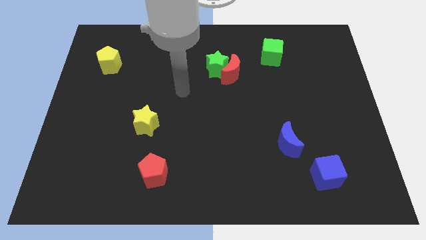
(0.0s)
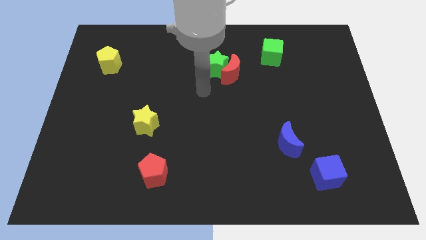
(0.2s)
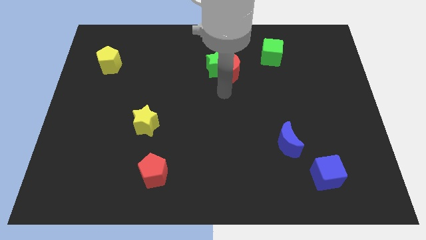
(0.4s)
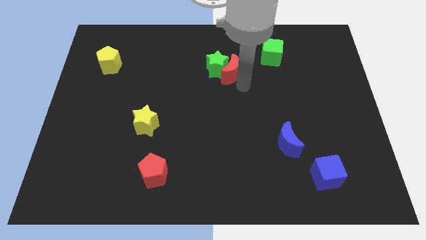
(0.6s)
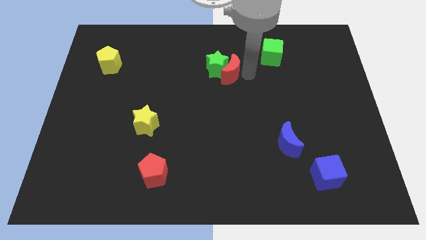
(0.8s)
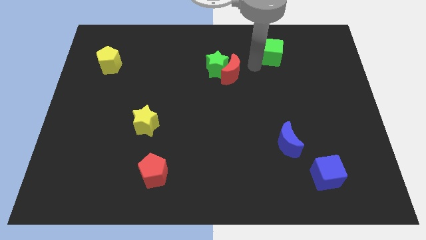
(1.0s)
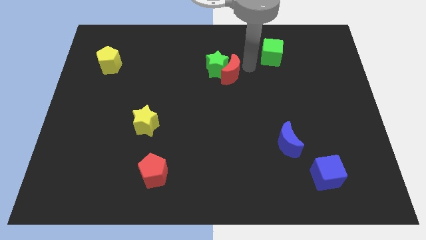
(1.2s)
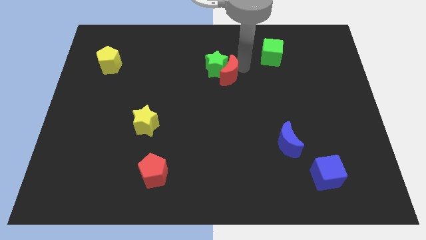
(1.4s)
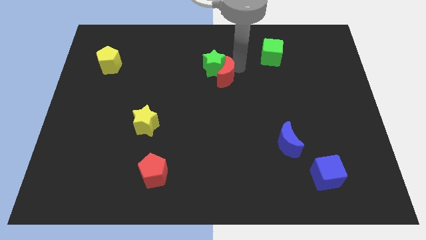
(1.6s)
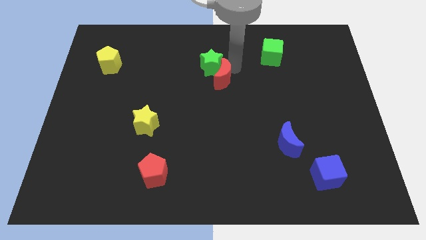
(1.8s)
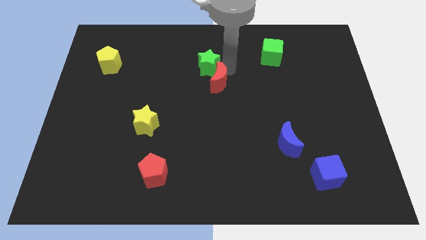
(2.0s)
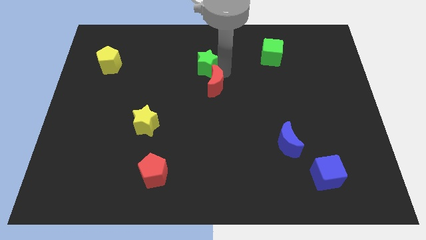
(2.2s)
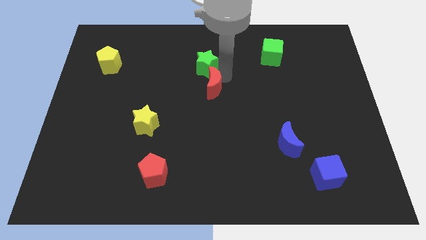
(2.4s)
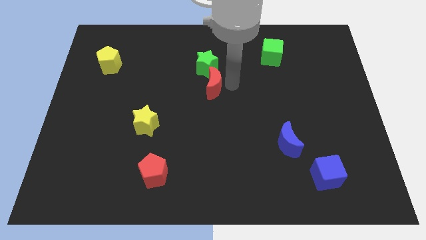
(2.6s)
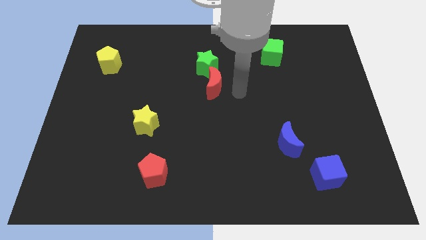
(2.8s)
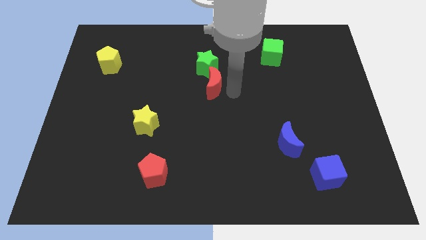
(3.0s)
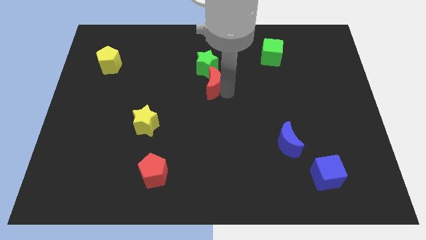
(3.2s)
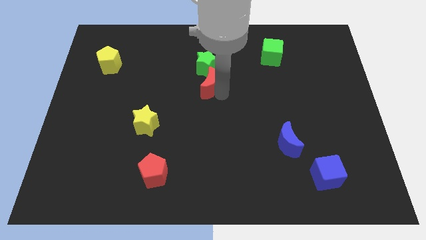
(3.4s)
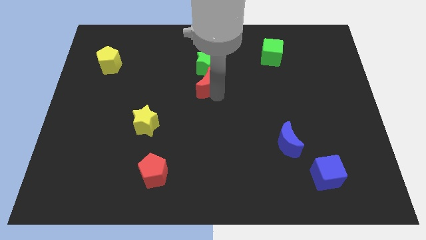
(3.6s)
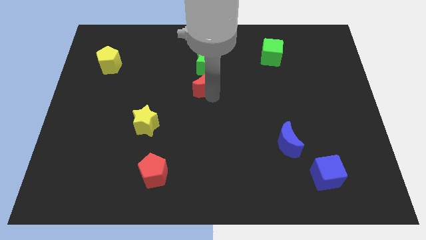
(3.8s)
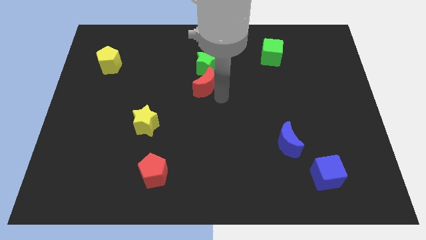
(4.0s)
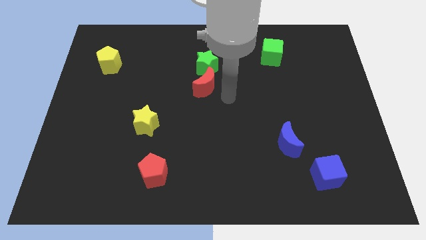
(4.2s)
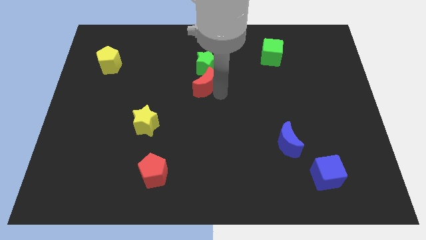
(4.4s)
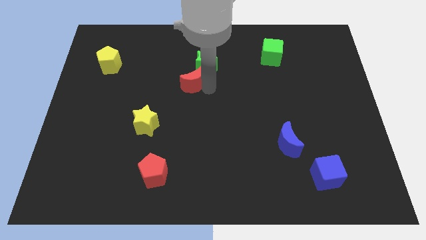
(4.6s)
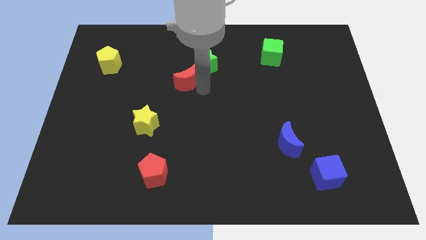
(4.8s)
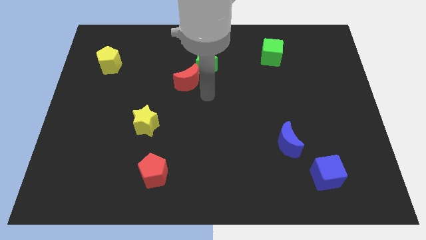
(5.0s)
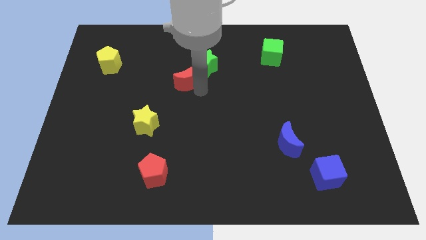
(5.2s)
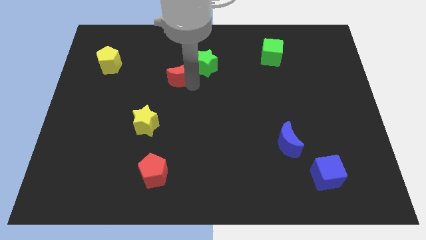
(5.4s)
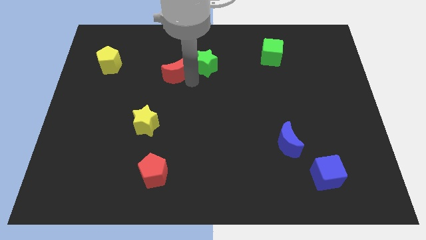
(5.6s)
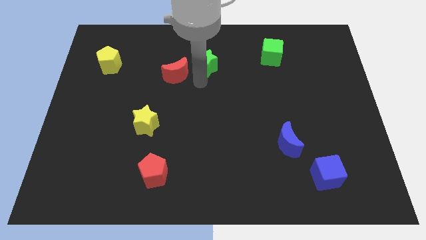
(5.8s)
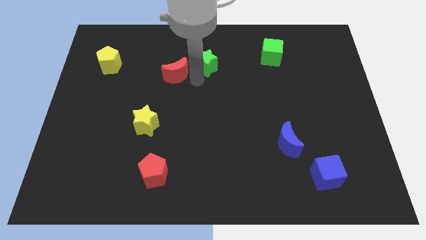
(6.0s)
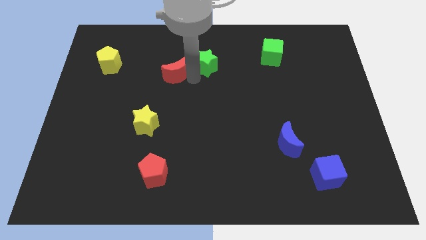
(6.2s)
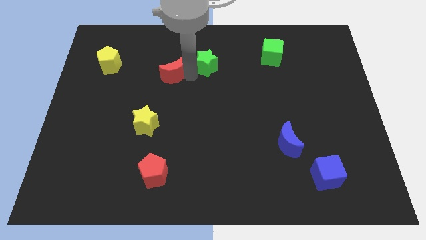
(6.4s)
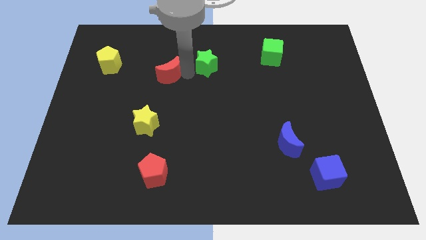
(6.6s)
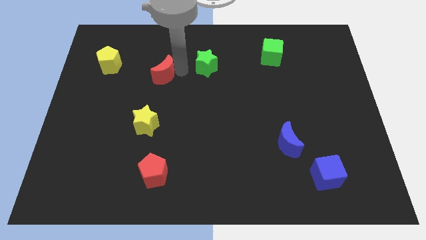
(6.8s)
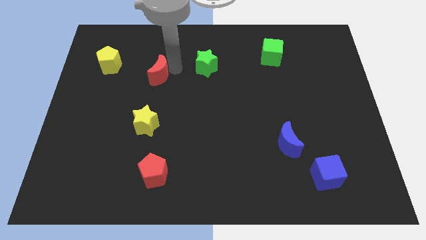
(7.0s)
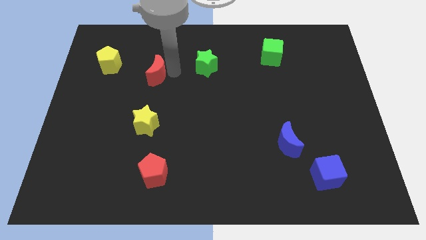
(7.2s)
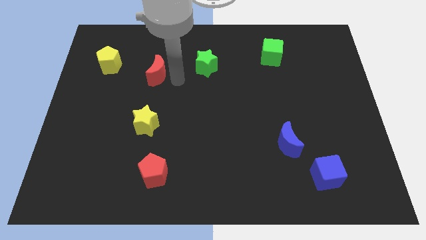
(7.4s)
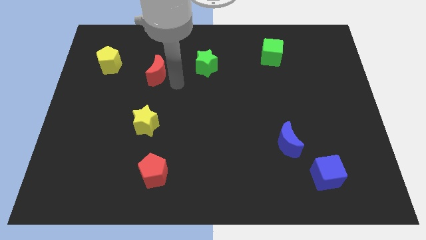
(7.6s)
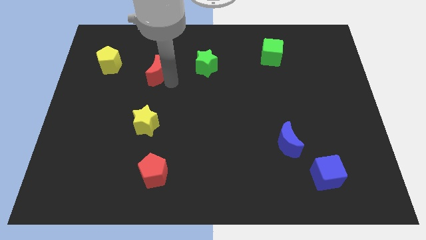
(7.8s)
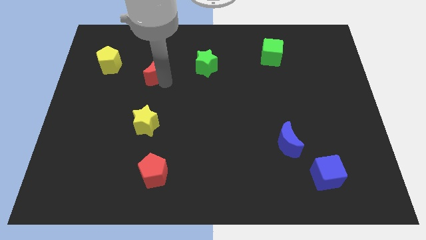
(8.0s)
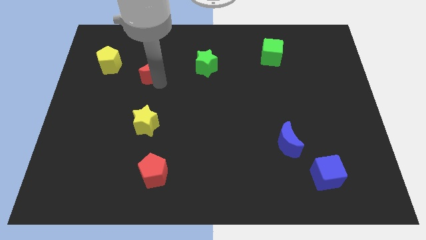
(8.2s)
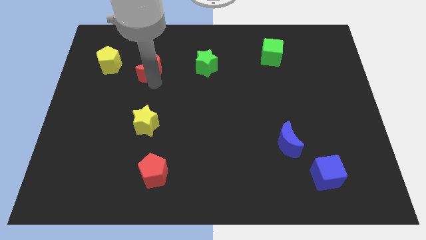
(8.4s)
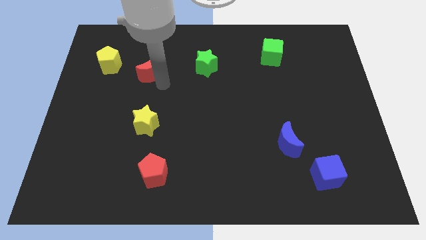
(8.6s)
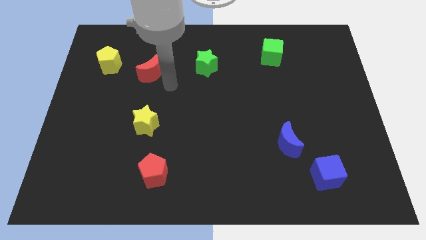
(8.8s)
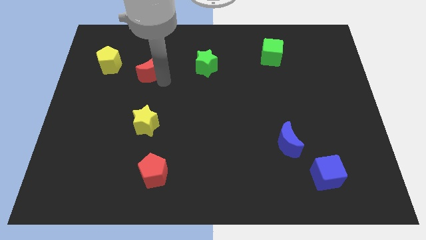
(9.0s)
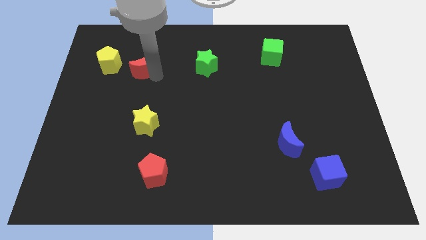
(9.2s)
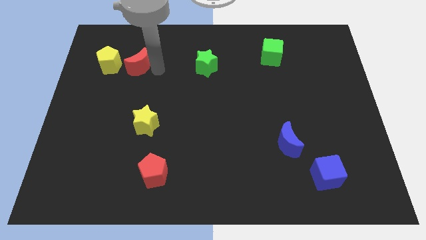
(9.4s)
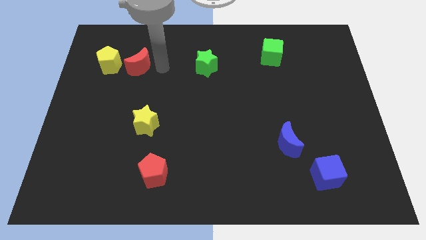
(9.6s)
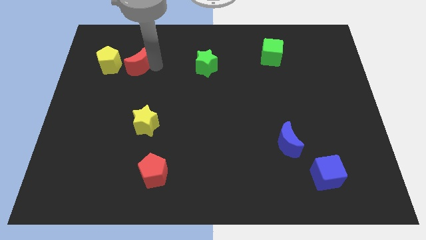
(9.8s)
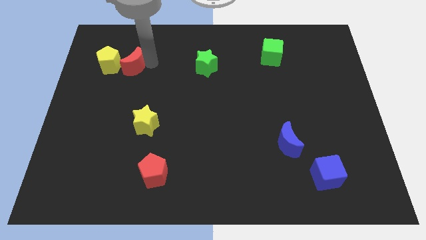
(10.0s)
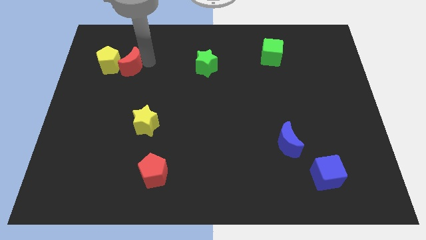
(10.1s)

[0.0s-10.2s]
move the red moon next to the yellow pentagon

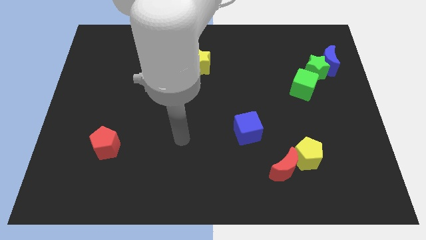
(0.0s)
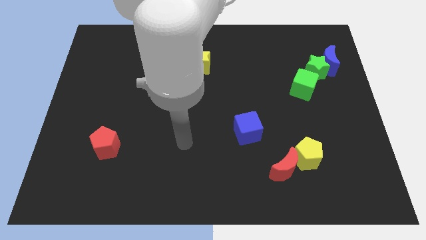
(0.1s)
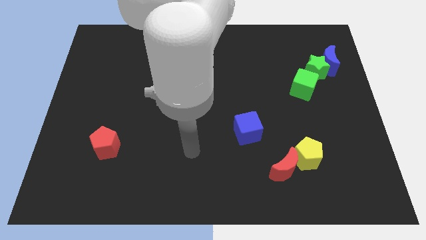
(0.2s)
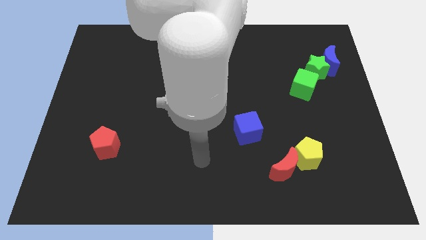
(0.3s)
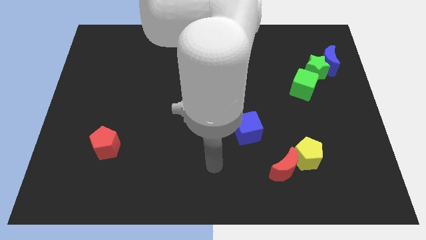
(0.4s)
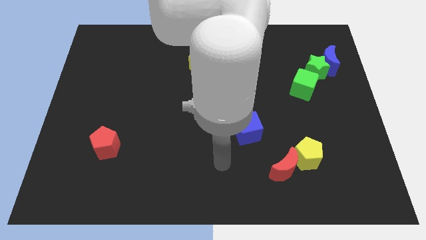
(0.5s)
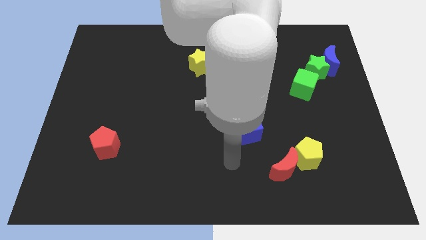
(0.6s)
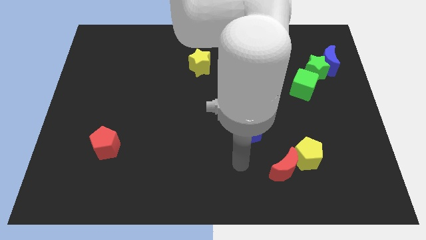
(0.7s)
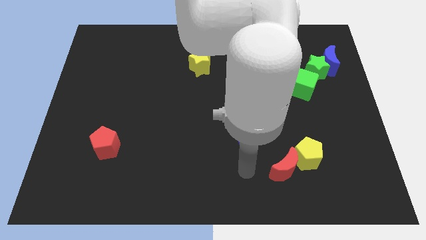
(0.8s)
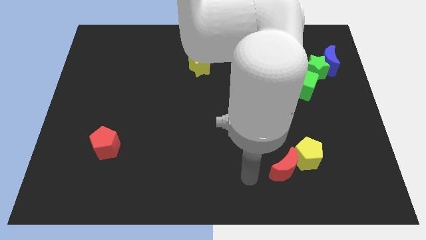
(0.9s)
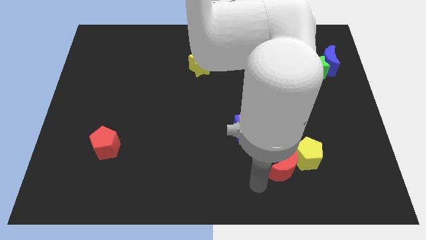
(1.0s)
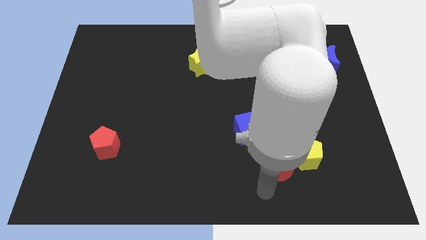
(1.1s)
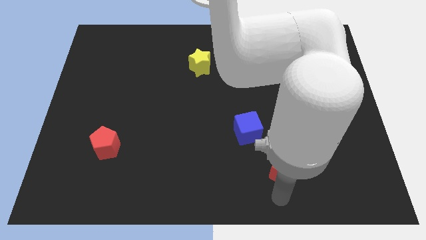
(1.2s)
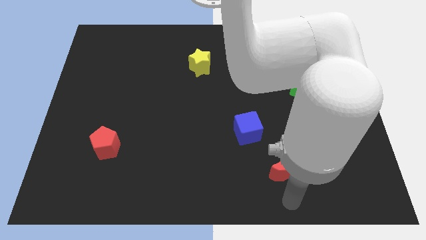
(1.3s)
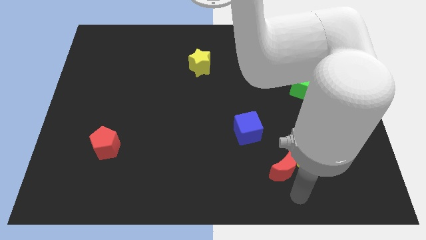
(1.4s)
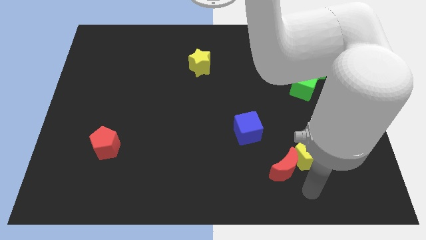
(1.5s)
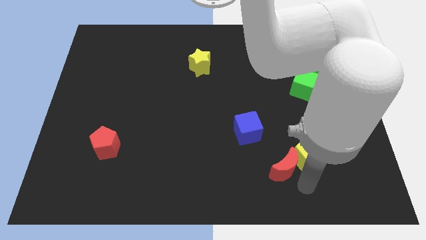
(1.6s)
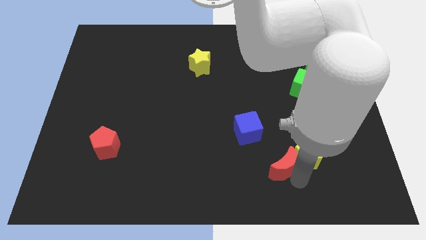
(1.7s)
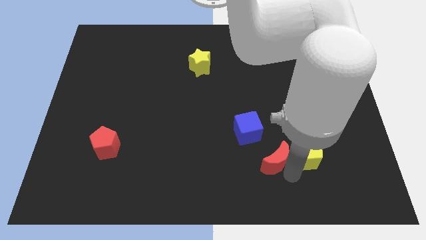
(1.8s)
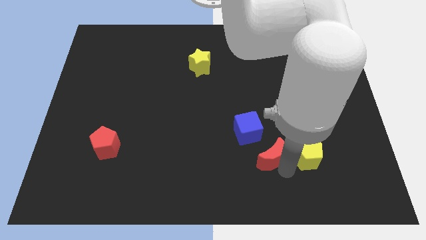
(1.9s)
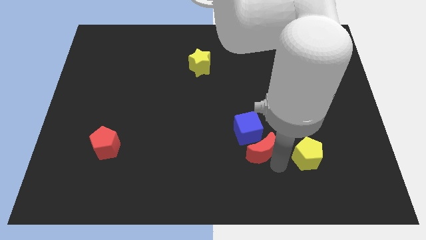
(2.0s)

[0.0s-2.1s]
slide the red moon close to the blue cube

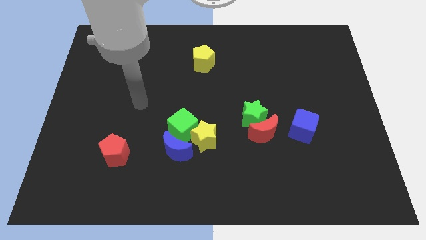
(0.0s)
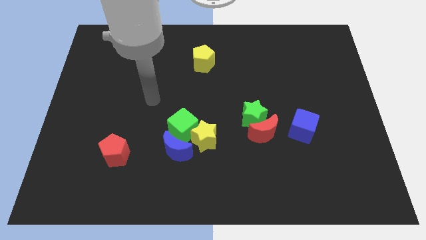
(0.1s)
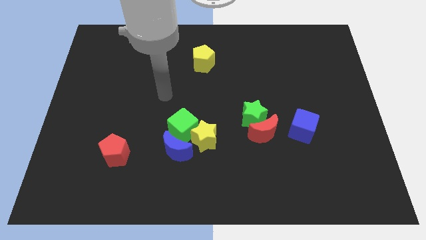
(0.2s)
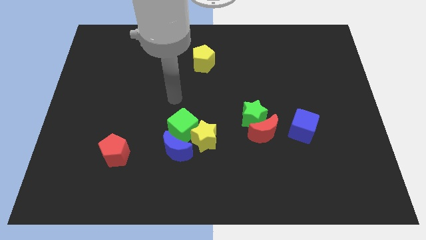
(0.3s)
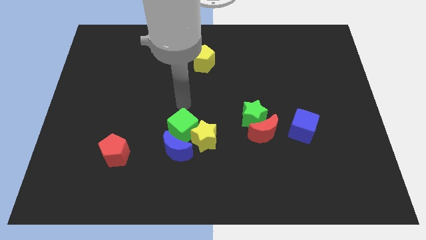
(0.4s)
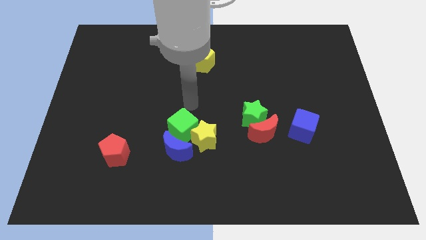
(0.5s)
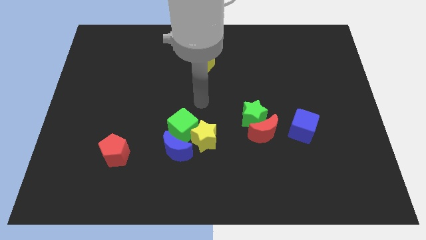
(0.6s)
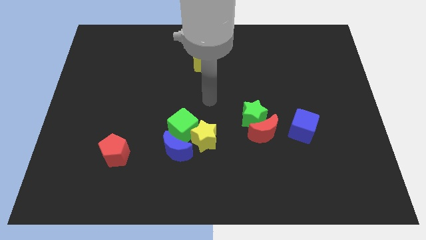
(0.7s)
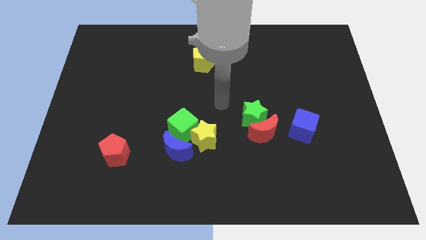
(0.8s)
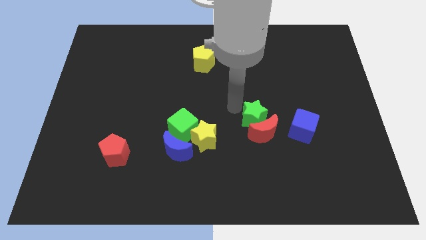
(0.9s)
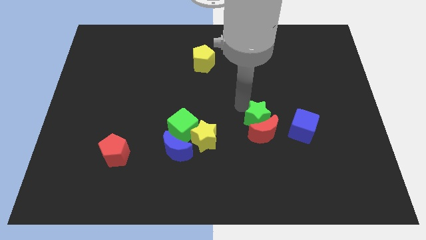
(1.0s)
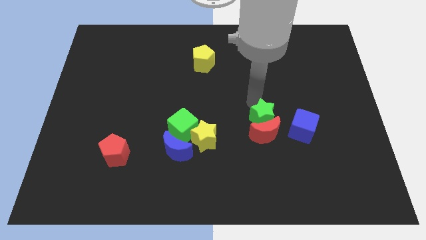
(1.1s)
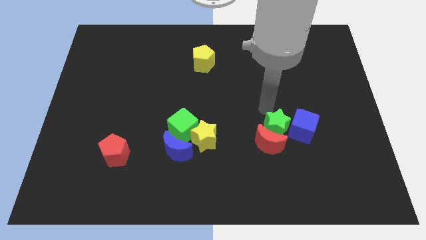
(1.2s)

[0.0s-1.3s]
move the blue cube to the green star
